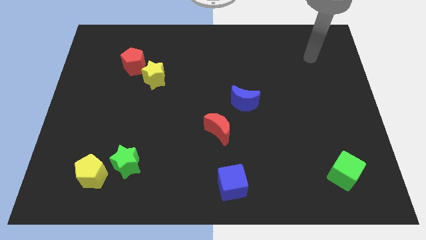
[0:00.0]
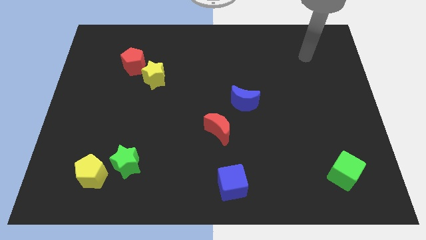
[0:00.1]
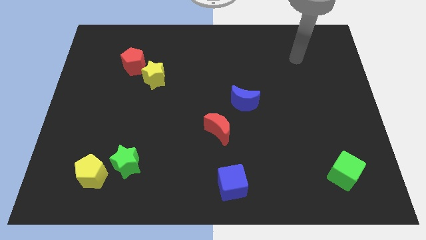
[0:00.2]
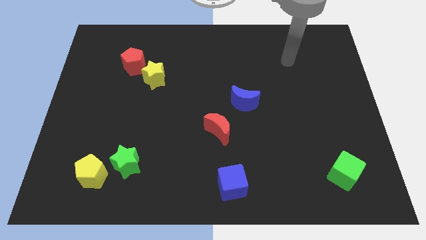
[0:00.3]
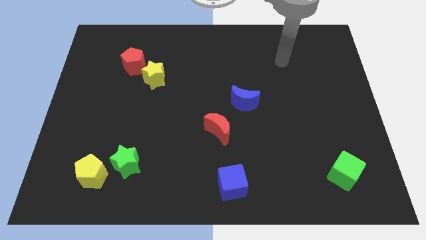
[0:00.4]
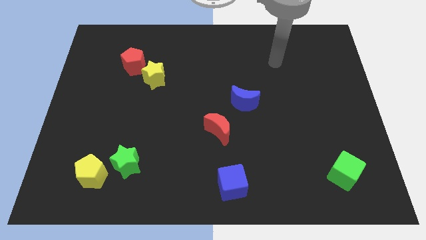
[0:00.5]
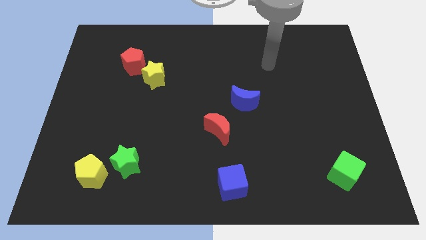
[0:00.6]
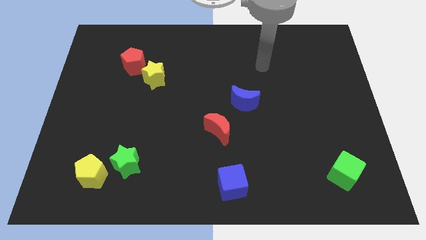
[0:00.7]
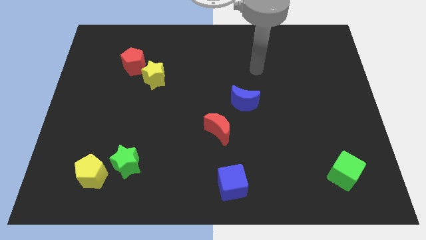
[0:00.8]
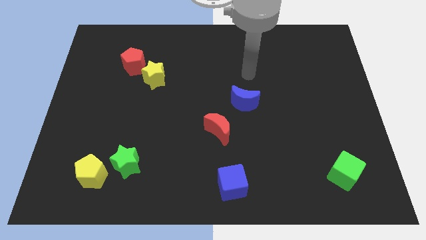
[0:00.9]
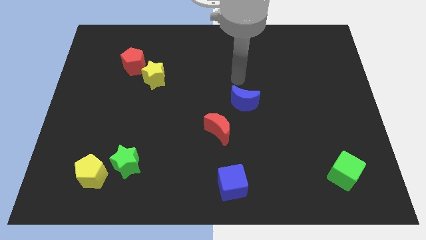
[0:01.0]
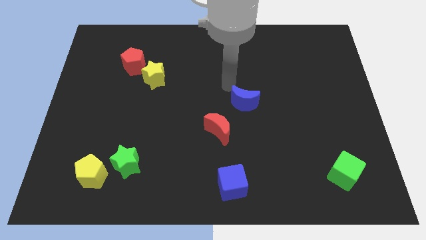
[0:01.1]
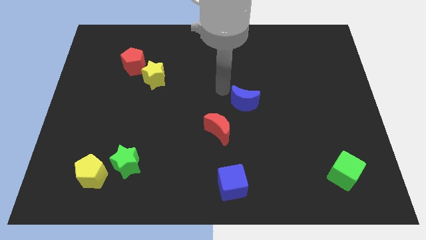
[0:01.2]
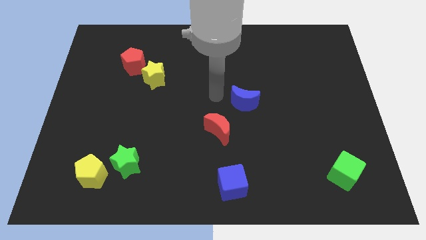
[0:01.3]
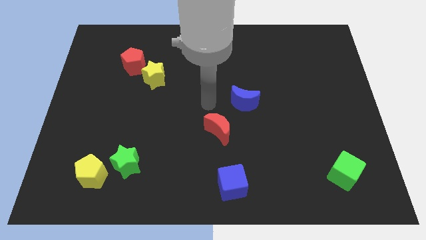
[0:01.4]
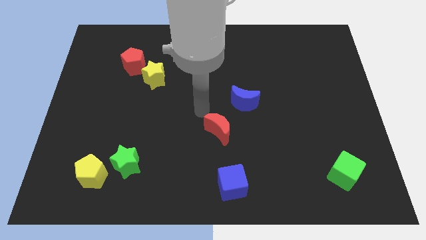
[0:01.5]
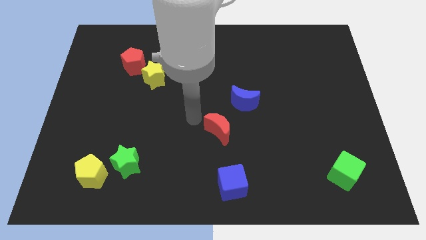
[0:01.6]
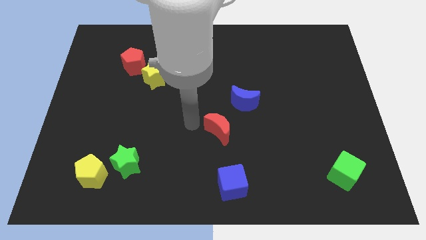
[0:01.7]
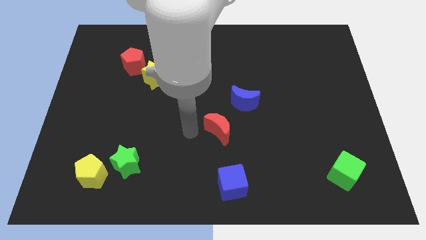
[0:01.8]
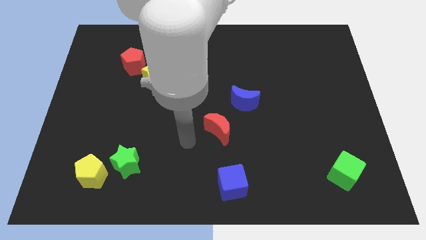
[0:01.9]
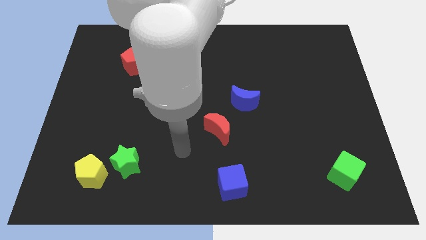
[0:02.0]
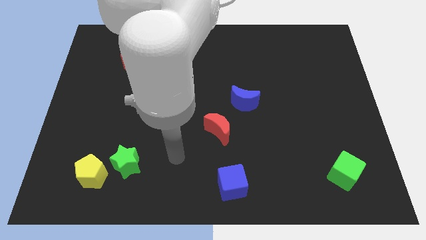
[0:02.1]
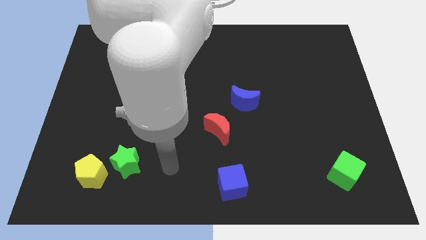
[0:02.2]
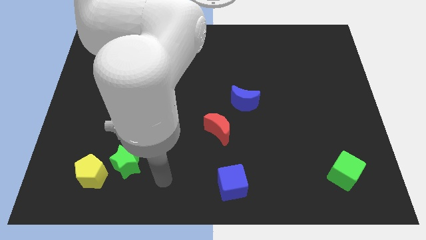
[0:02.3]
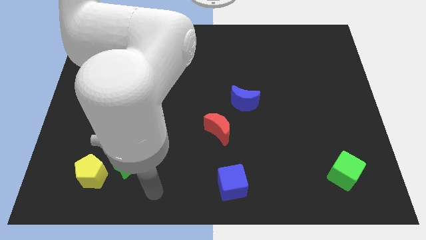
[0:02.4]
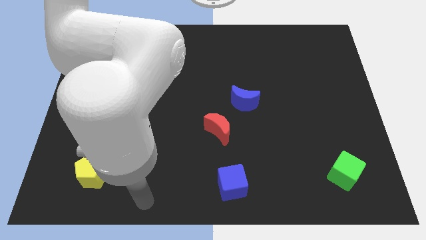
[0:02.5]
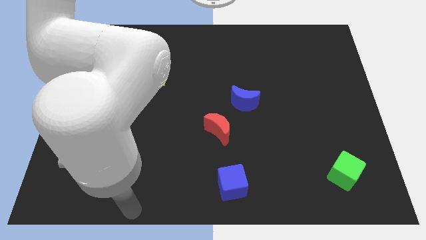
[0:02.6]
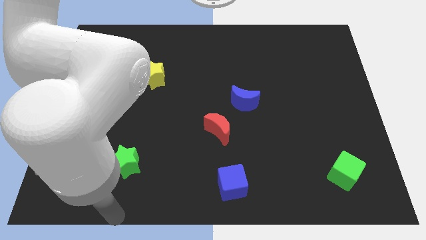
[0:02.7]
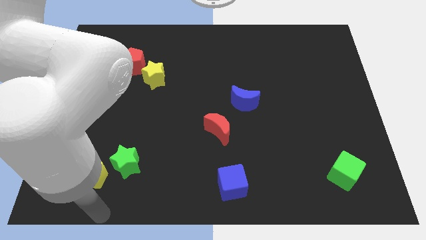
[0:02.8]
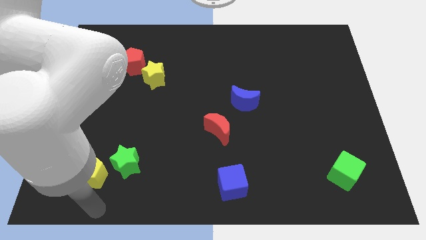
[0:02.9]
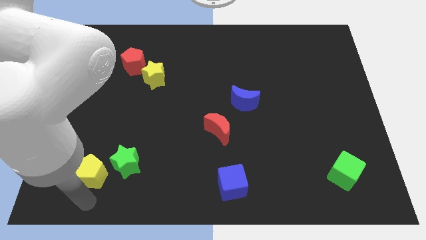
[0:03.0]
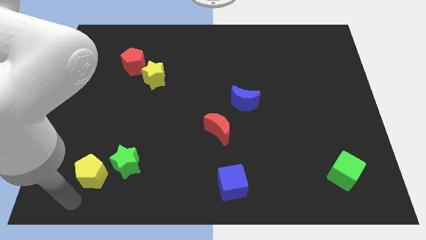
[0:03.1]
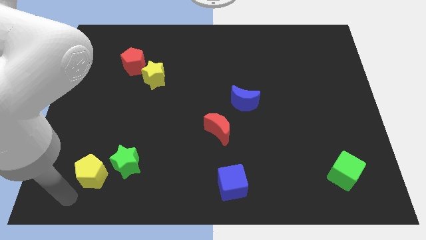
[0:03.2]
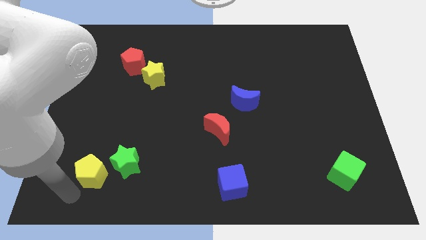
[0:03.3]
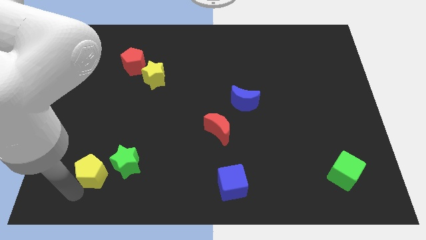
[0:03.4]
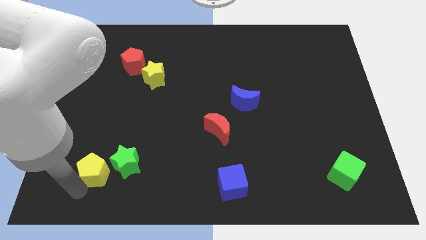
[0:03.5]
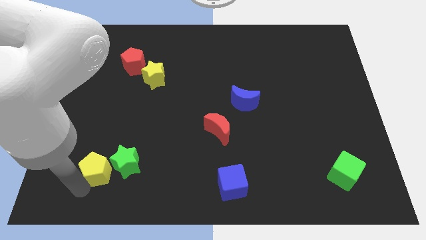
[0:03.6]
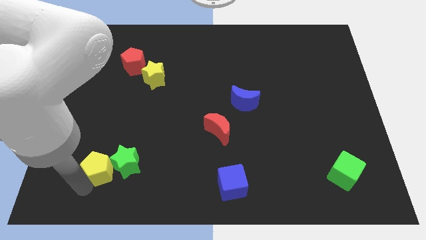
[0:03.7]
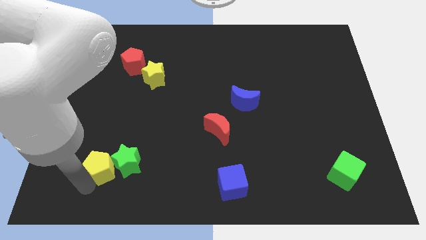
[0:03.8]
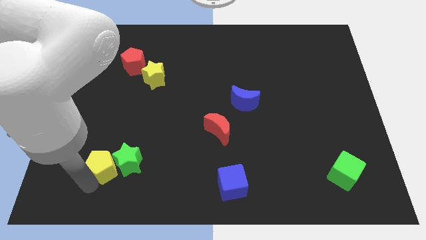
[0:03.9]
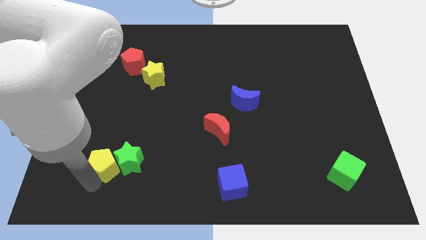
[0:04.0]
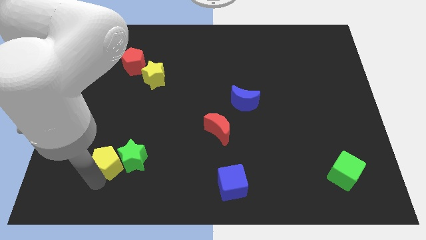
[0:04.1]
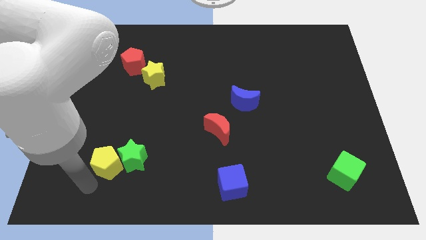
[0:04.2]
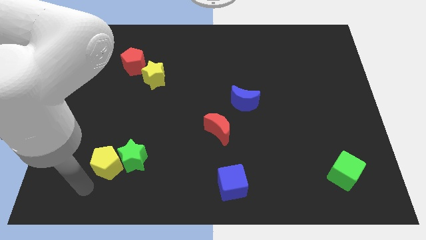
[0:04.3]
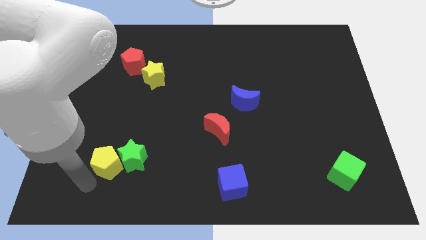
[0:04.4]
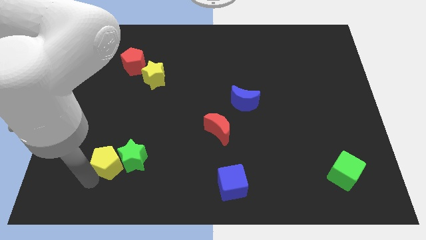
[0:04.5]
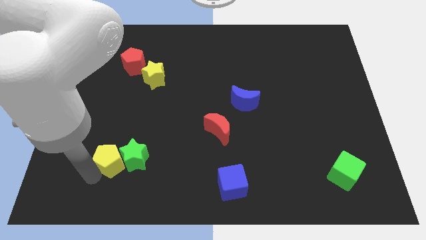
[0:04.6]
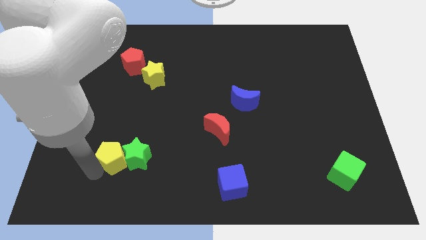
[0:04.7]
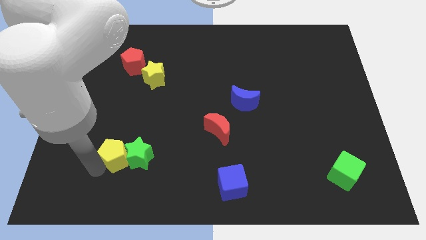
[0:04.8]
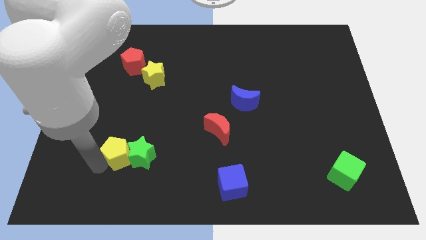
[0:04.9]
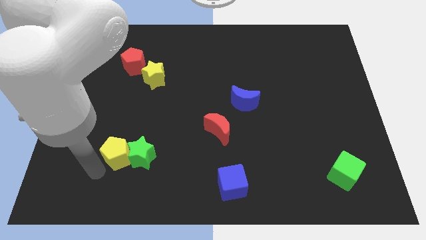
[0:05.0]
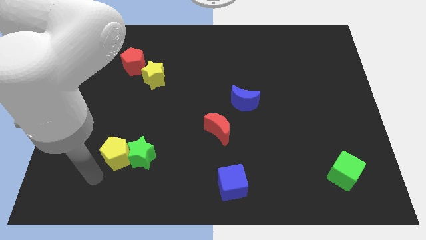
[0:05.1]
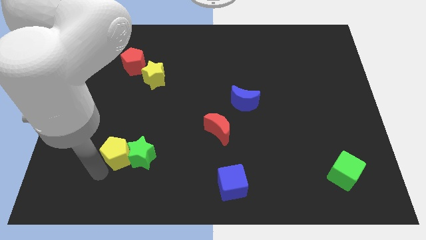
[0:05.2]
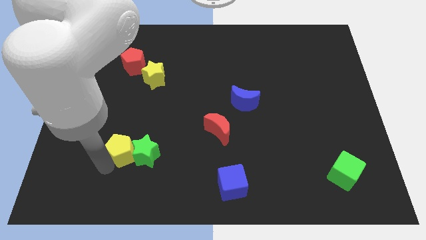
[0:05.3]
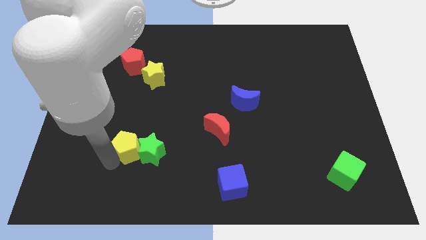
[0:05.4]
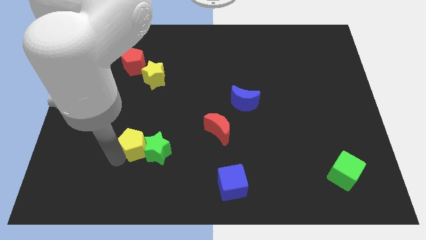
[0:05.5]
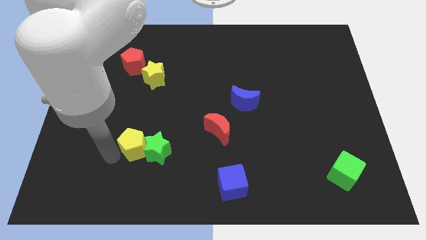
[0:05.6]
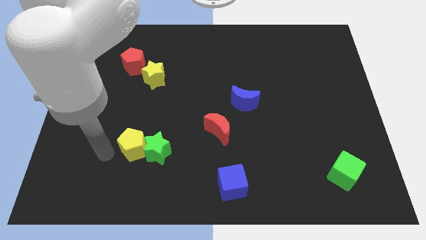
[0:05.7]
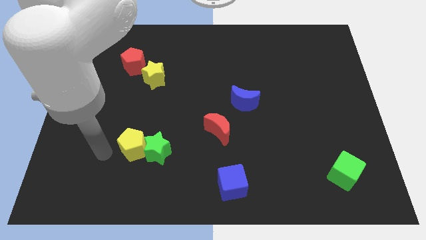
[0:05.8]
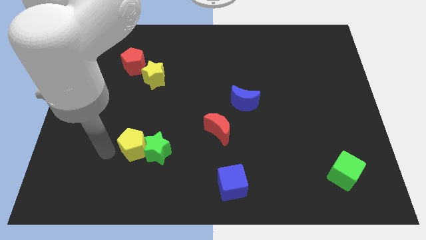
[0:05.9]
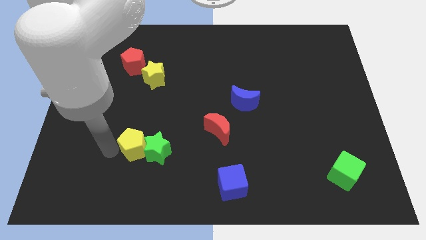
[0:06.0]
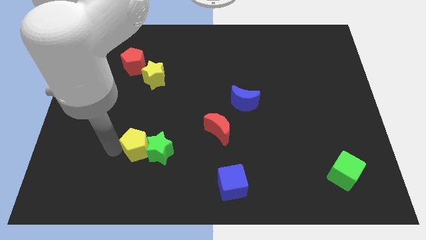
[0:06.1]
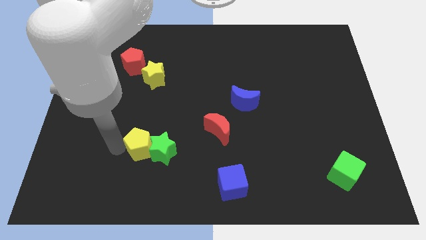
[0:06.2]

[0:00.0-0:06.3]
move the yellow pentagon to the right slightly

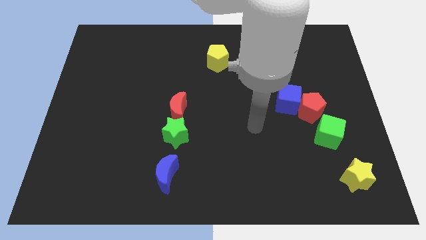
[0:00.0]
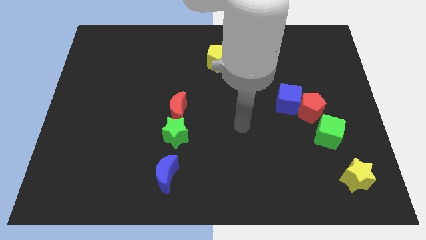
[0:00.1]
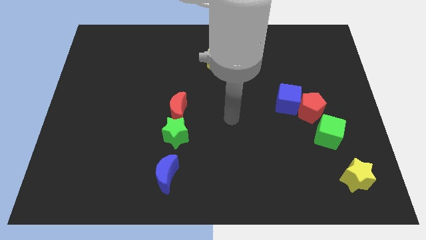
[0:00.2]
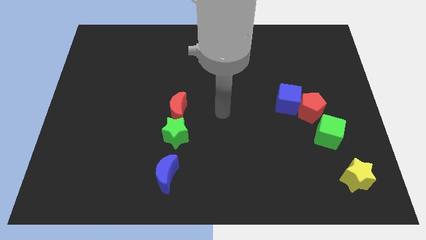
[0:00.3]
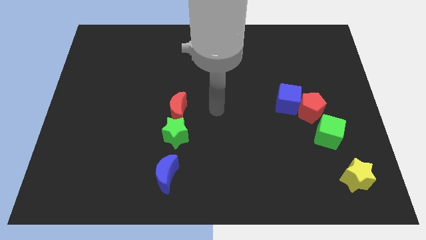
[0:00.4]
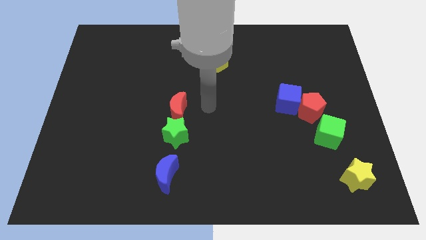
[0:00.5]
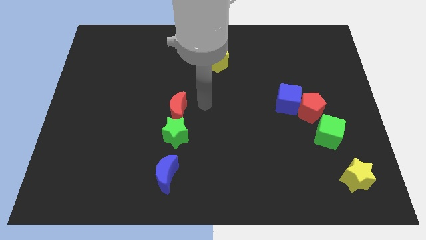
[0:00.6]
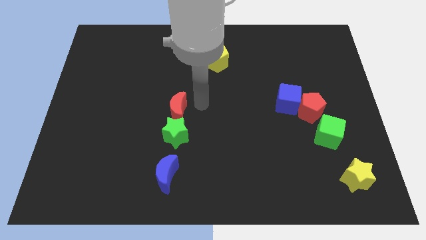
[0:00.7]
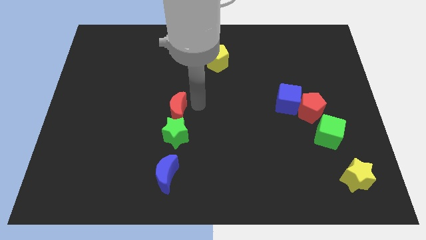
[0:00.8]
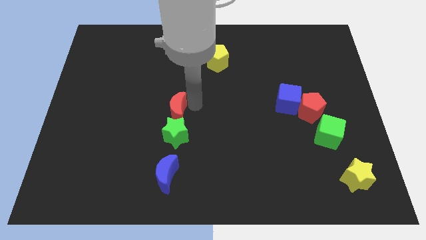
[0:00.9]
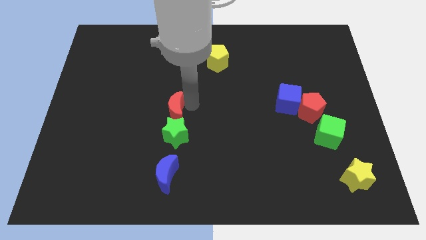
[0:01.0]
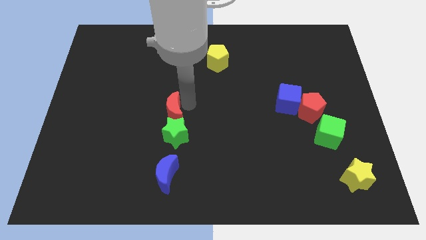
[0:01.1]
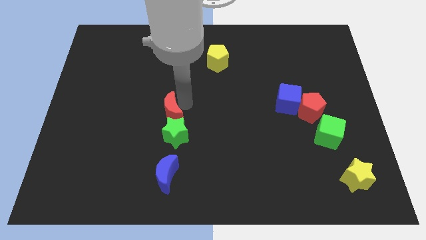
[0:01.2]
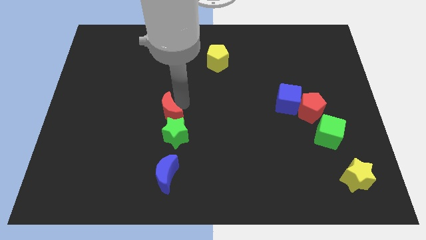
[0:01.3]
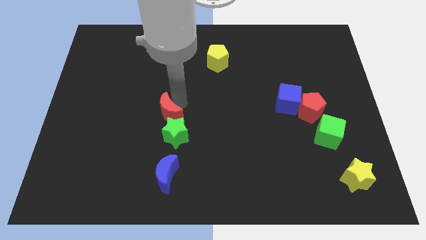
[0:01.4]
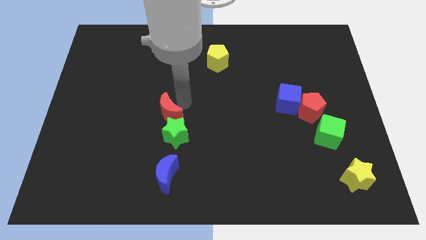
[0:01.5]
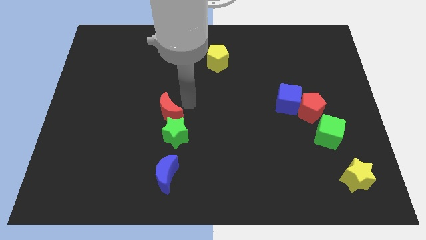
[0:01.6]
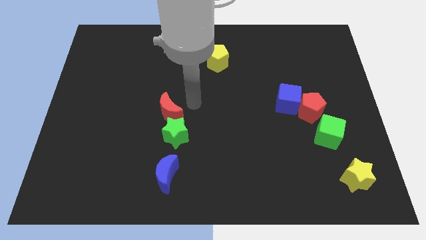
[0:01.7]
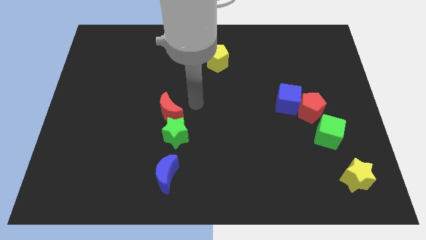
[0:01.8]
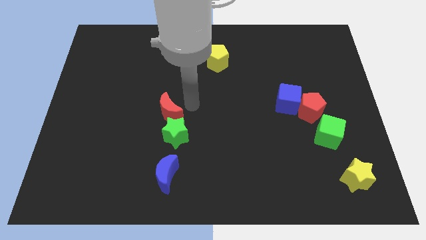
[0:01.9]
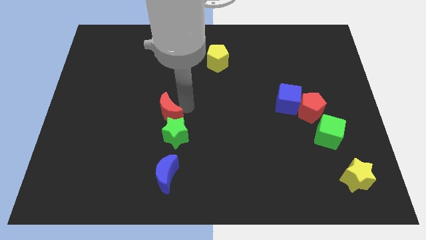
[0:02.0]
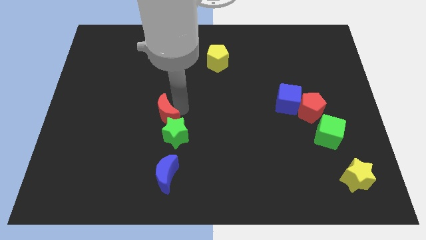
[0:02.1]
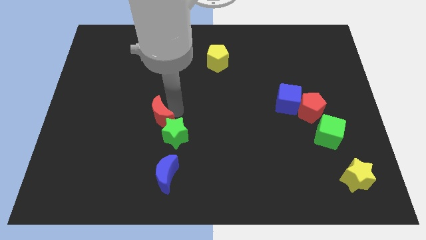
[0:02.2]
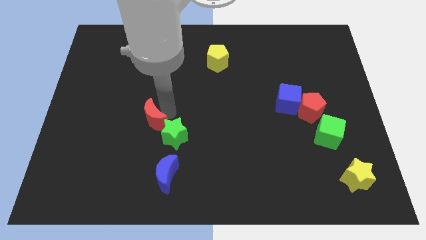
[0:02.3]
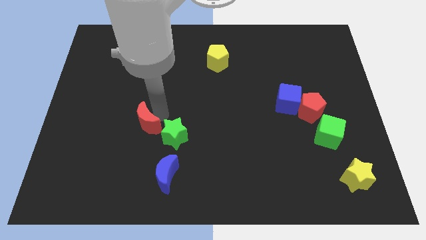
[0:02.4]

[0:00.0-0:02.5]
slide the red moon down and then left a bit
